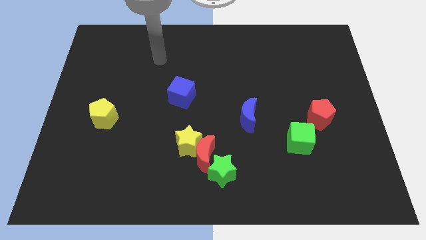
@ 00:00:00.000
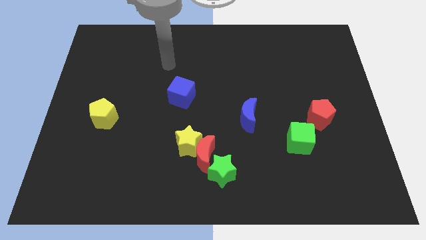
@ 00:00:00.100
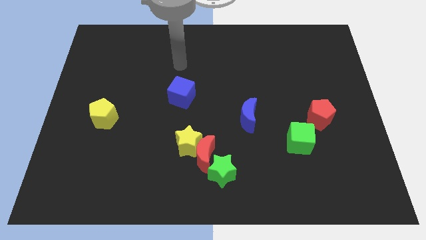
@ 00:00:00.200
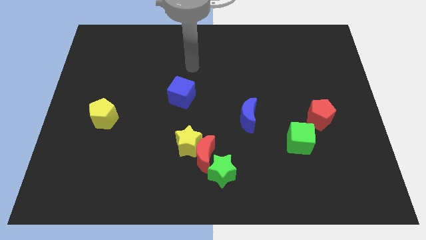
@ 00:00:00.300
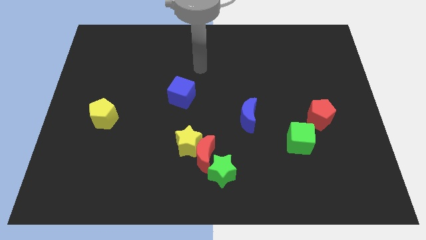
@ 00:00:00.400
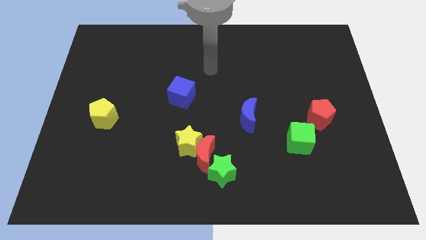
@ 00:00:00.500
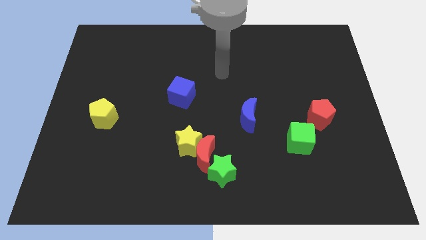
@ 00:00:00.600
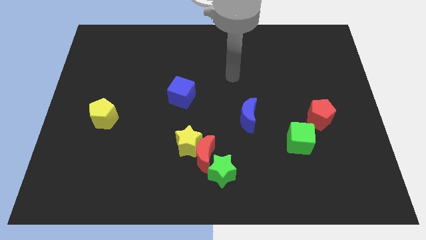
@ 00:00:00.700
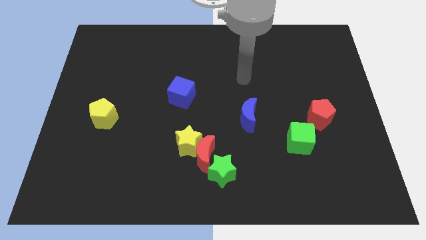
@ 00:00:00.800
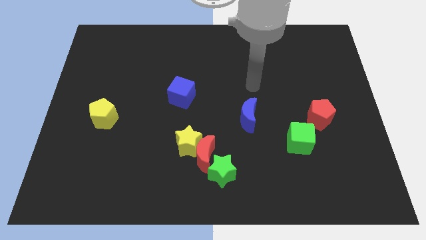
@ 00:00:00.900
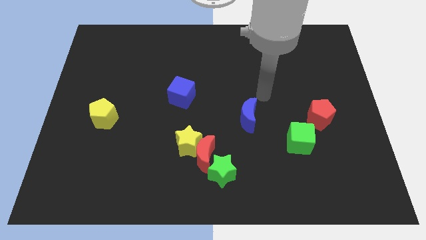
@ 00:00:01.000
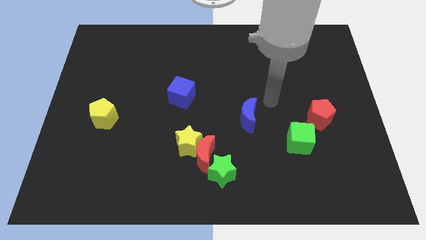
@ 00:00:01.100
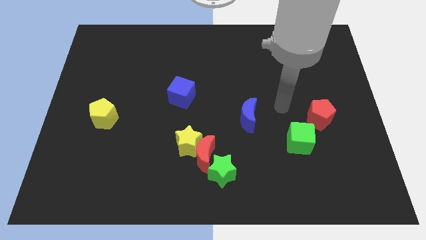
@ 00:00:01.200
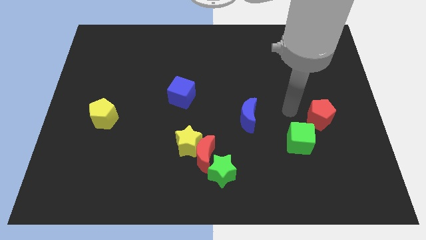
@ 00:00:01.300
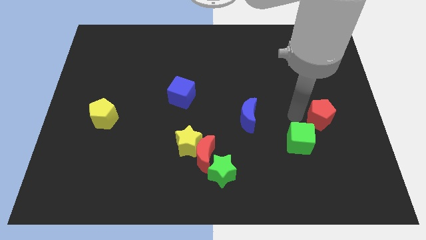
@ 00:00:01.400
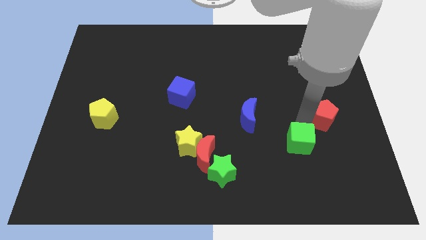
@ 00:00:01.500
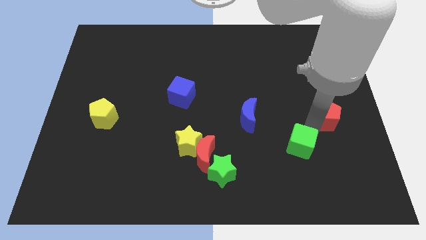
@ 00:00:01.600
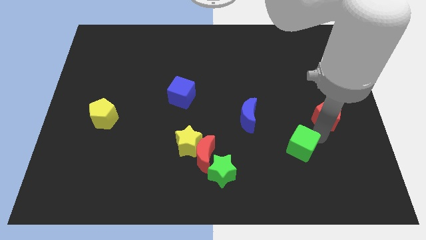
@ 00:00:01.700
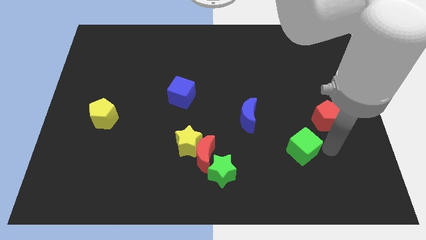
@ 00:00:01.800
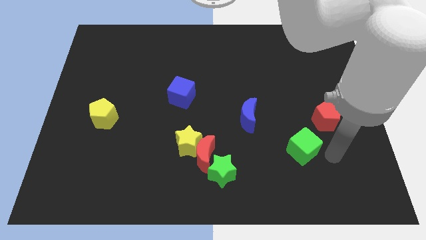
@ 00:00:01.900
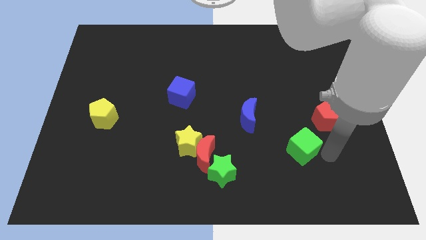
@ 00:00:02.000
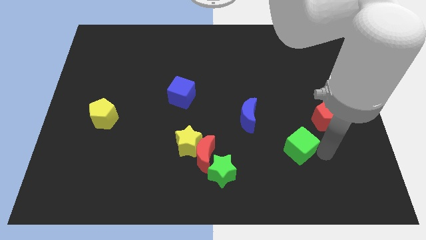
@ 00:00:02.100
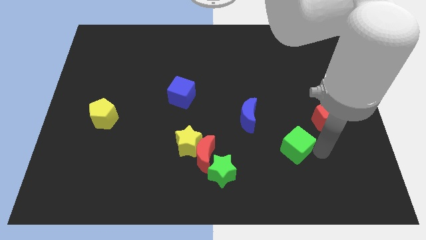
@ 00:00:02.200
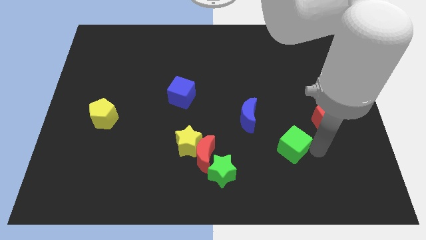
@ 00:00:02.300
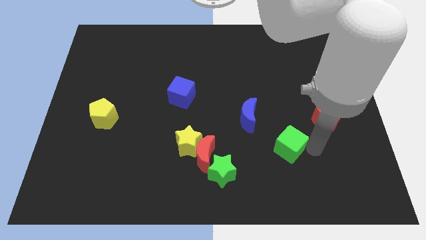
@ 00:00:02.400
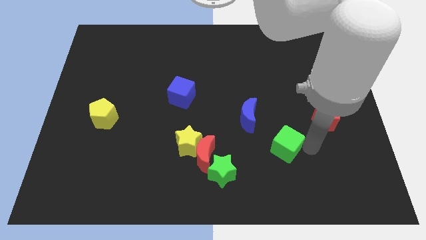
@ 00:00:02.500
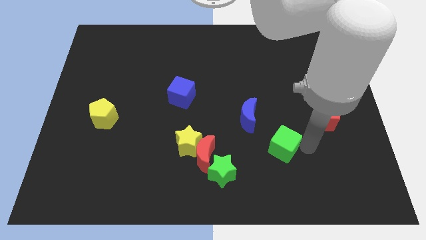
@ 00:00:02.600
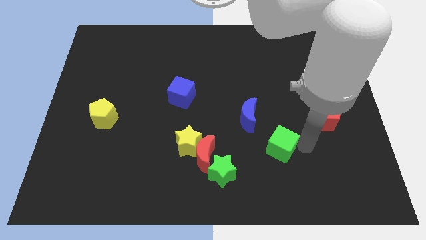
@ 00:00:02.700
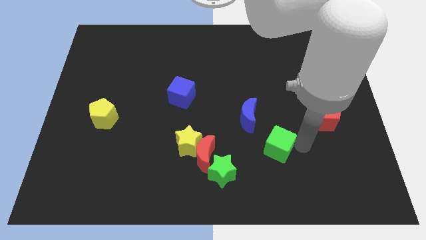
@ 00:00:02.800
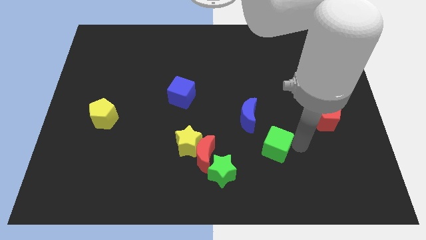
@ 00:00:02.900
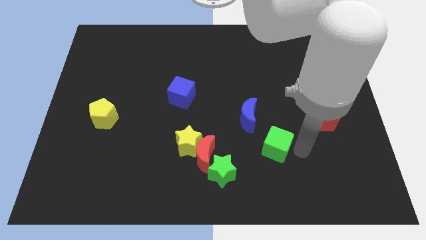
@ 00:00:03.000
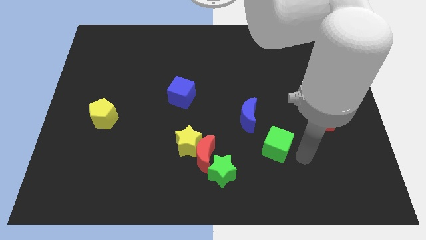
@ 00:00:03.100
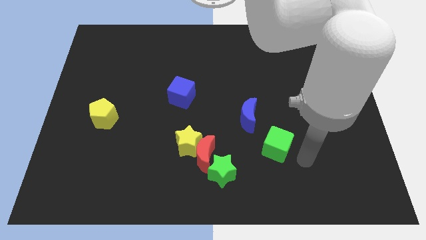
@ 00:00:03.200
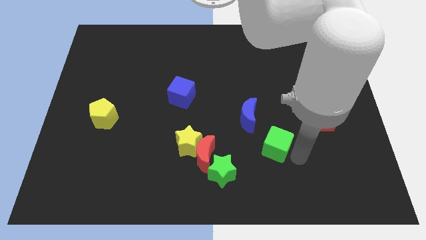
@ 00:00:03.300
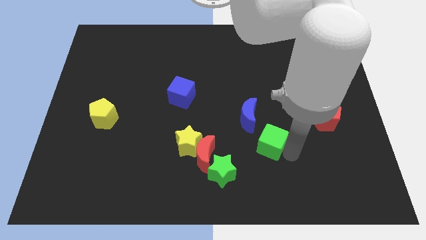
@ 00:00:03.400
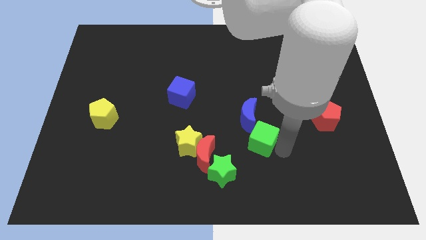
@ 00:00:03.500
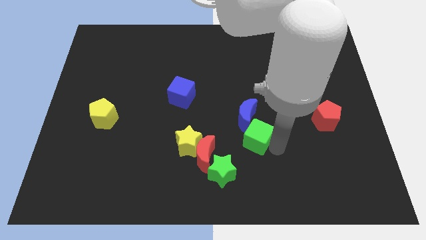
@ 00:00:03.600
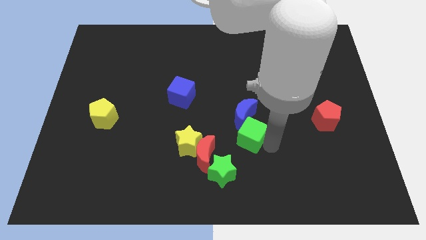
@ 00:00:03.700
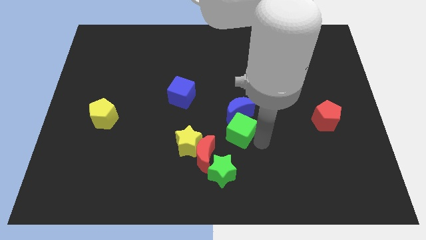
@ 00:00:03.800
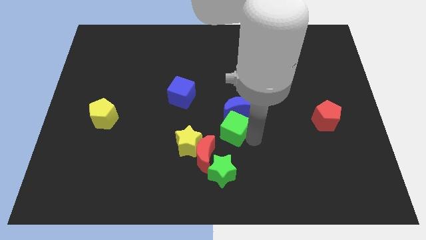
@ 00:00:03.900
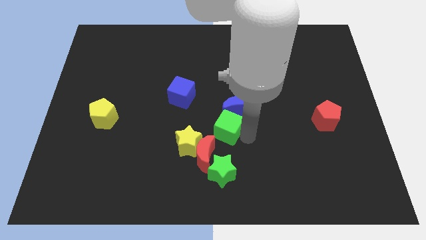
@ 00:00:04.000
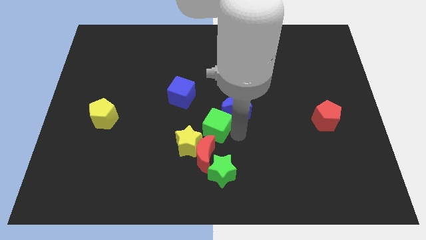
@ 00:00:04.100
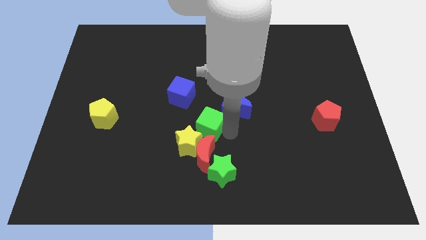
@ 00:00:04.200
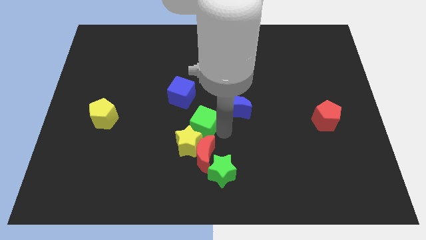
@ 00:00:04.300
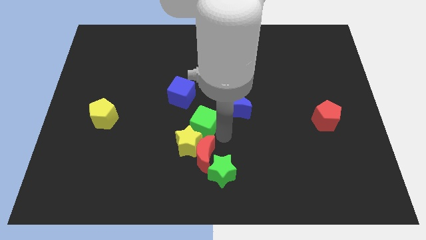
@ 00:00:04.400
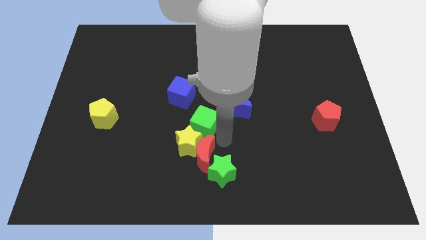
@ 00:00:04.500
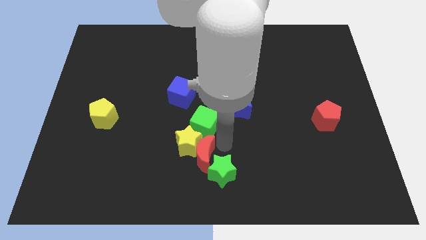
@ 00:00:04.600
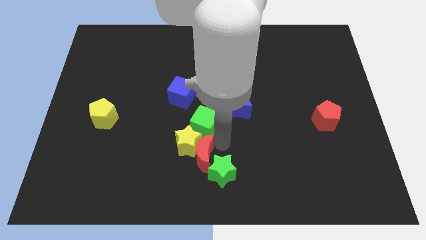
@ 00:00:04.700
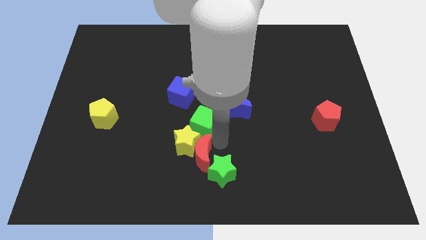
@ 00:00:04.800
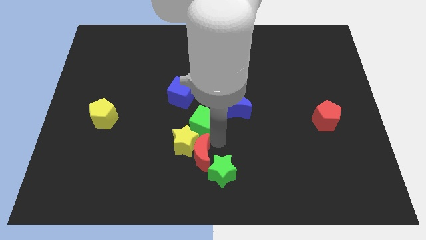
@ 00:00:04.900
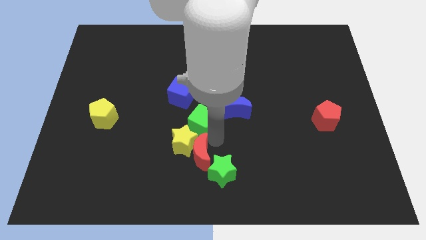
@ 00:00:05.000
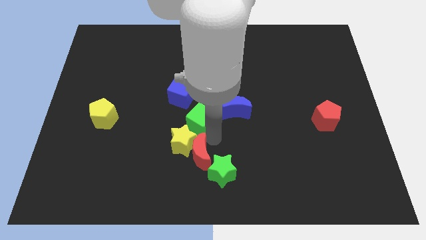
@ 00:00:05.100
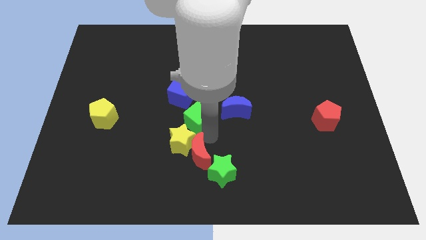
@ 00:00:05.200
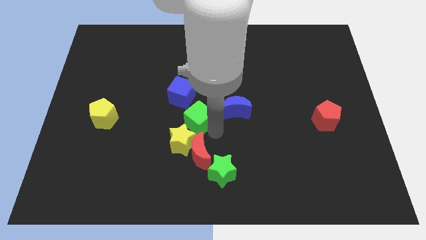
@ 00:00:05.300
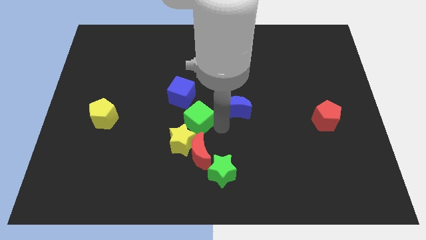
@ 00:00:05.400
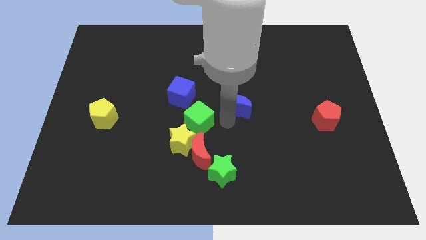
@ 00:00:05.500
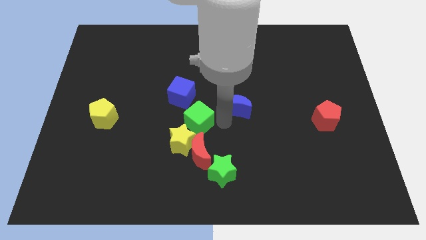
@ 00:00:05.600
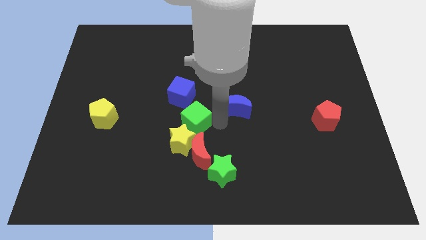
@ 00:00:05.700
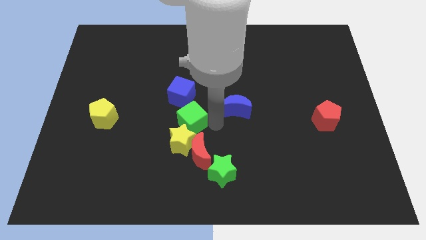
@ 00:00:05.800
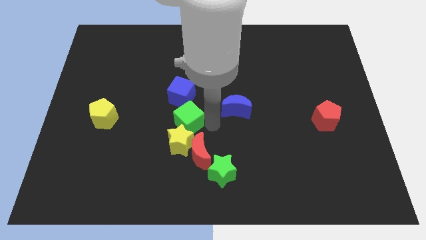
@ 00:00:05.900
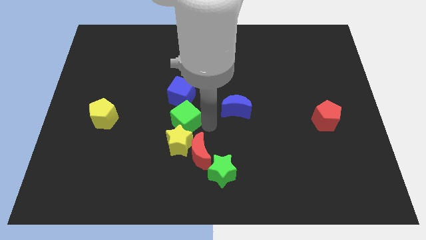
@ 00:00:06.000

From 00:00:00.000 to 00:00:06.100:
move the green cube to the top left side of the yellow star

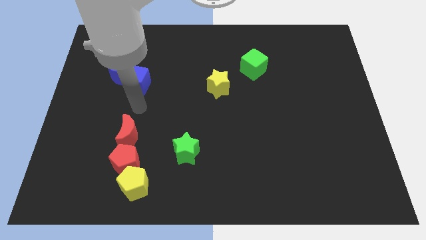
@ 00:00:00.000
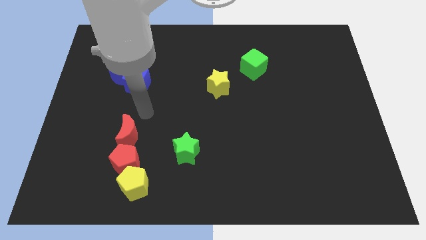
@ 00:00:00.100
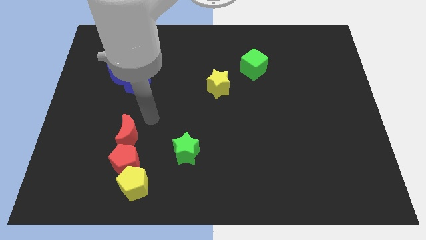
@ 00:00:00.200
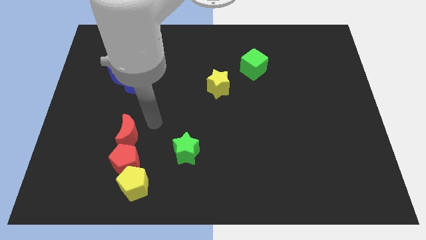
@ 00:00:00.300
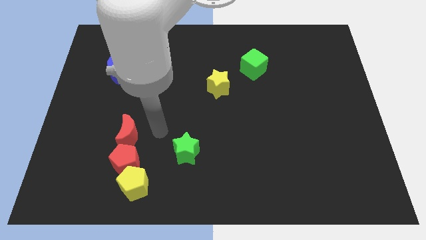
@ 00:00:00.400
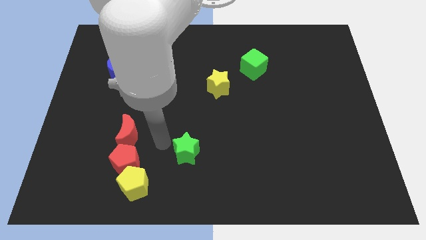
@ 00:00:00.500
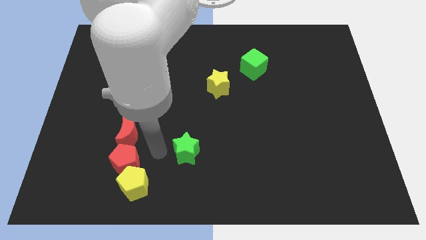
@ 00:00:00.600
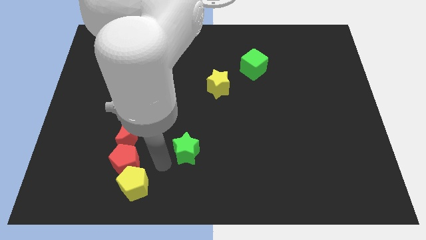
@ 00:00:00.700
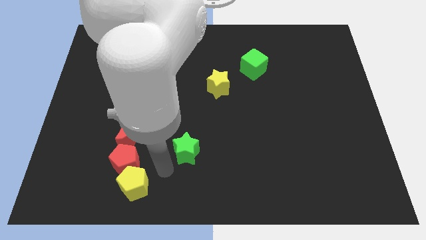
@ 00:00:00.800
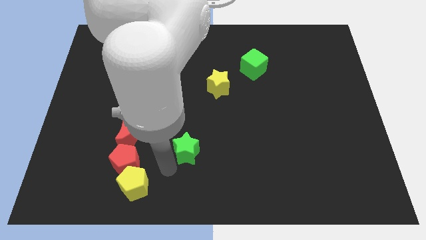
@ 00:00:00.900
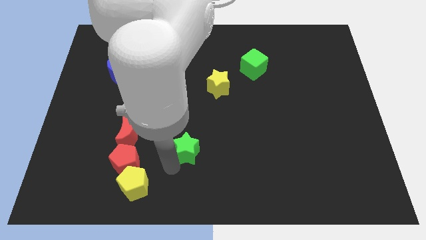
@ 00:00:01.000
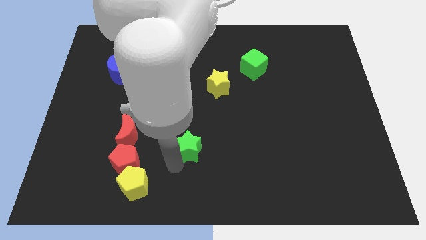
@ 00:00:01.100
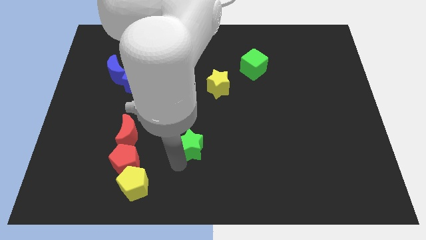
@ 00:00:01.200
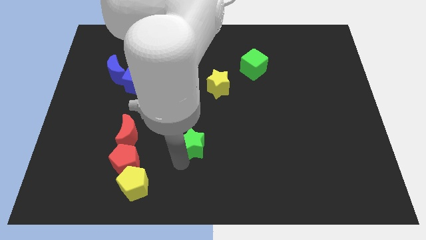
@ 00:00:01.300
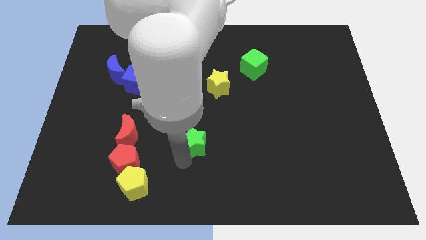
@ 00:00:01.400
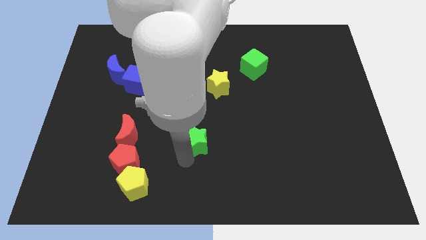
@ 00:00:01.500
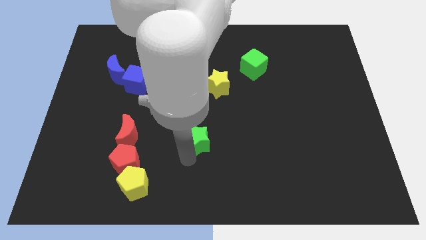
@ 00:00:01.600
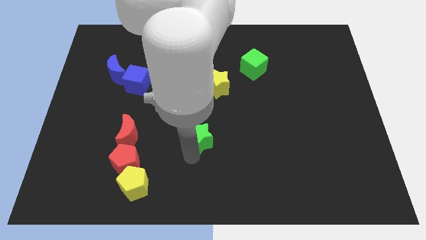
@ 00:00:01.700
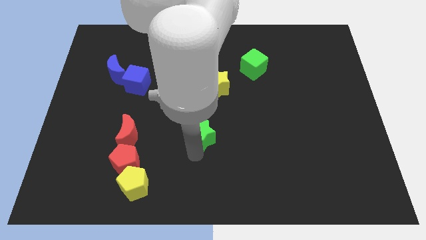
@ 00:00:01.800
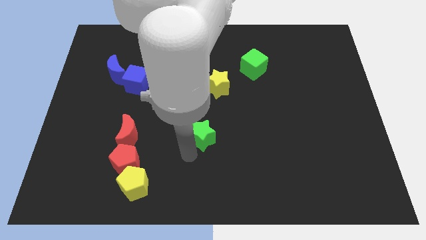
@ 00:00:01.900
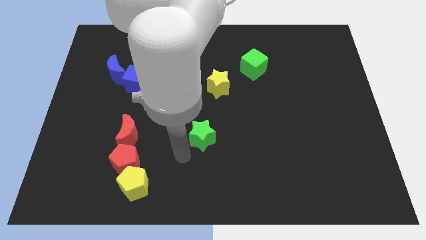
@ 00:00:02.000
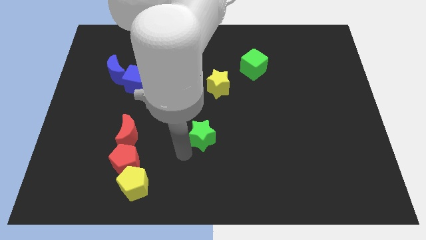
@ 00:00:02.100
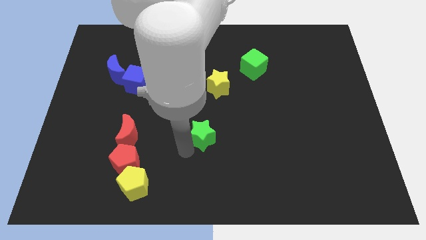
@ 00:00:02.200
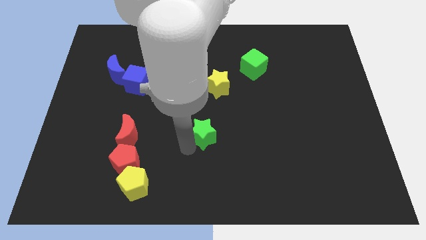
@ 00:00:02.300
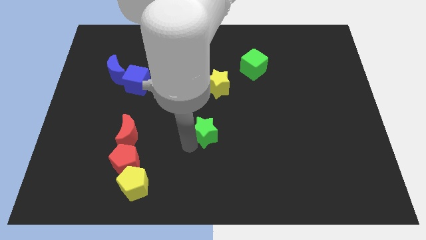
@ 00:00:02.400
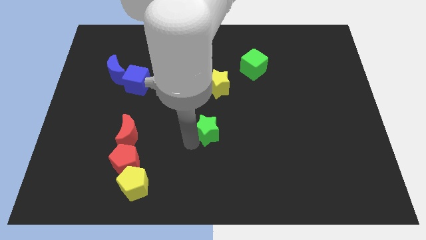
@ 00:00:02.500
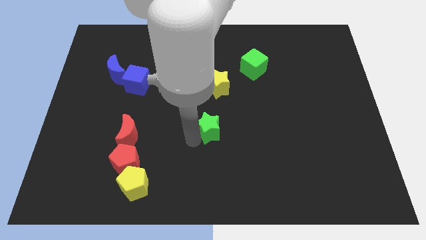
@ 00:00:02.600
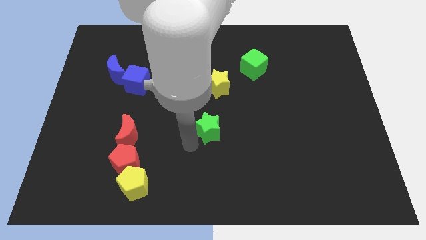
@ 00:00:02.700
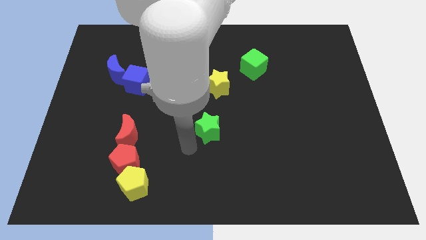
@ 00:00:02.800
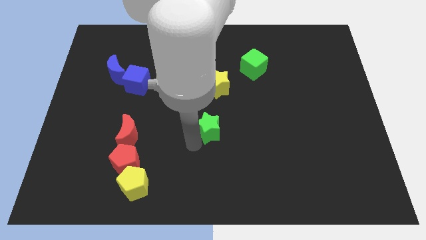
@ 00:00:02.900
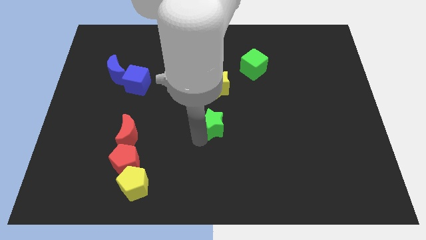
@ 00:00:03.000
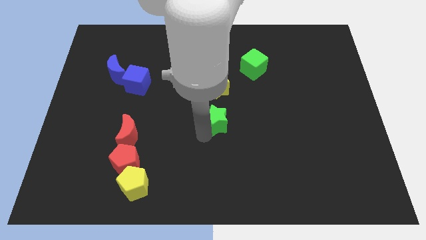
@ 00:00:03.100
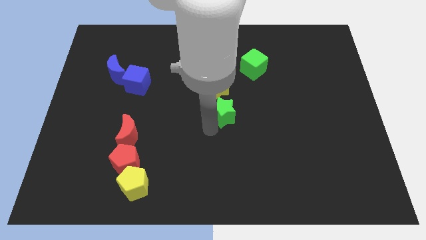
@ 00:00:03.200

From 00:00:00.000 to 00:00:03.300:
put the green star to the bottom right side of the yellow star
